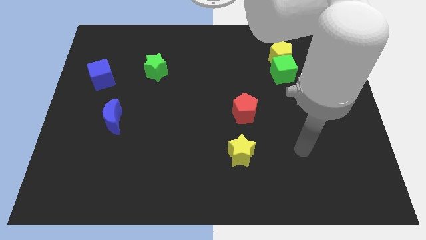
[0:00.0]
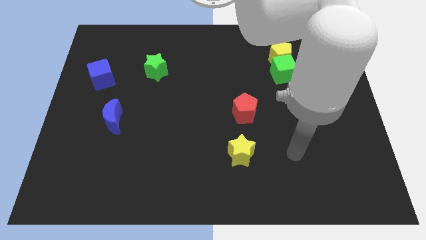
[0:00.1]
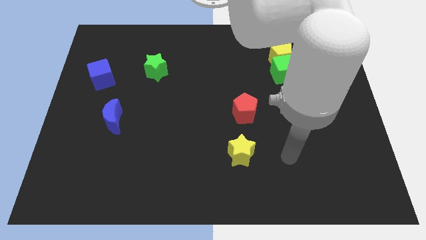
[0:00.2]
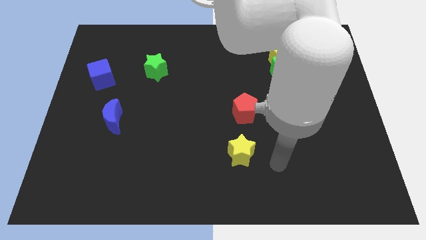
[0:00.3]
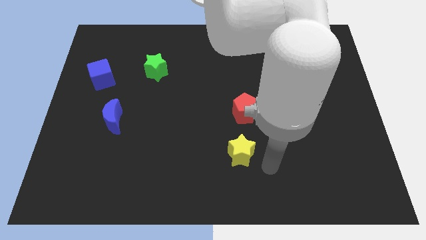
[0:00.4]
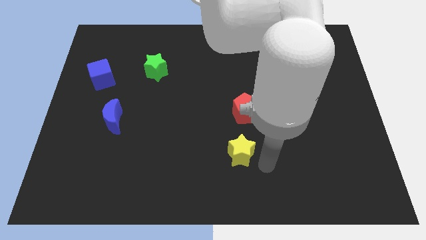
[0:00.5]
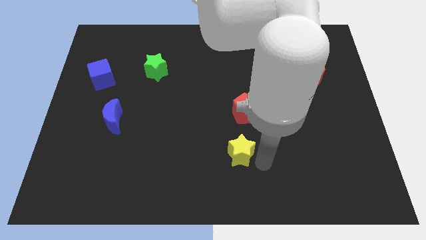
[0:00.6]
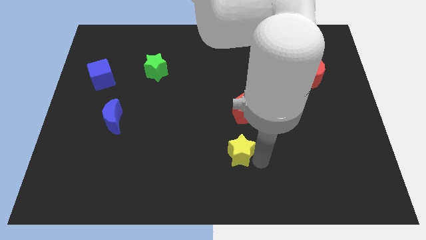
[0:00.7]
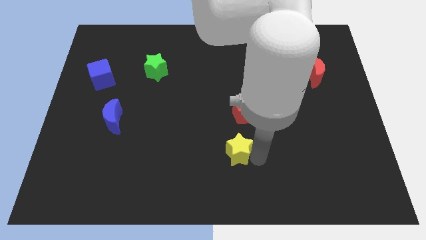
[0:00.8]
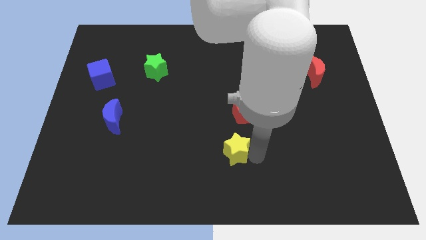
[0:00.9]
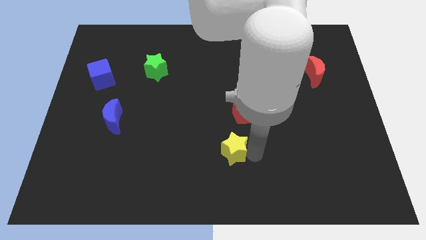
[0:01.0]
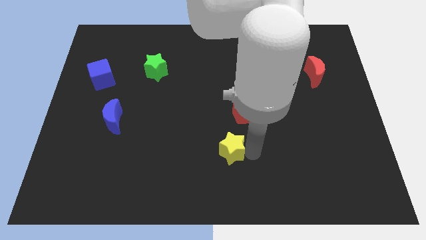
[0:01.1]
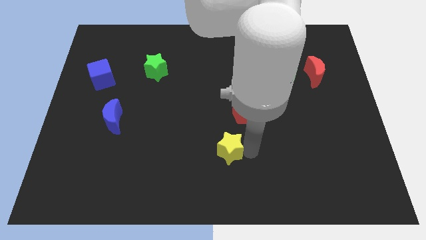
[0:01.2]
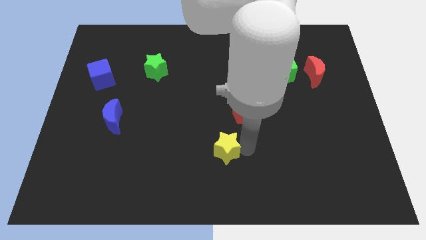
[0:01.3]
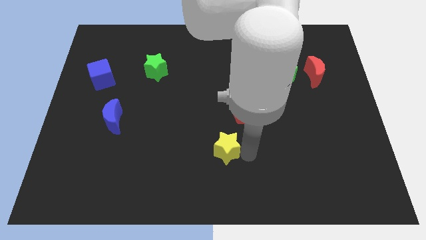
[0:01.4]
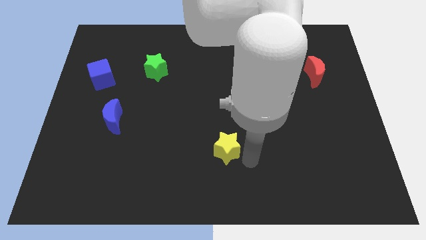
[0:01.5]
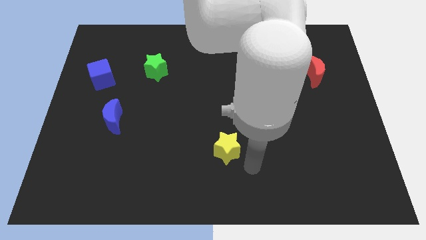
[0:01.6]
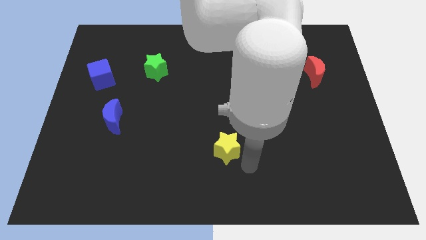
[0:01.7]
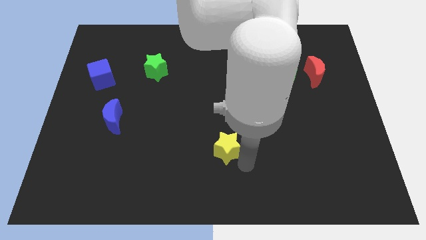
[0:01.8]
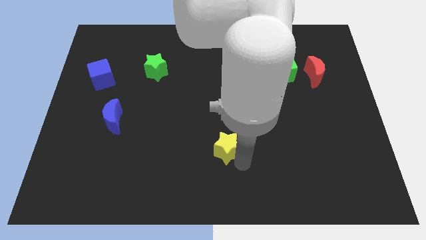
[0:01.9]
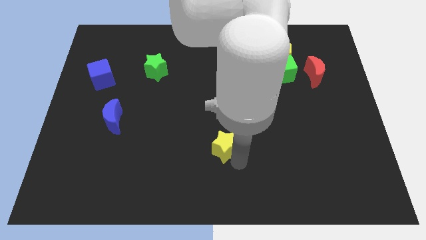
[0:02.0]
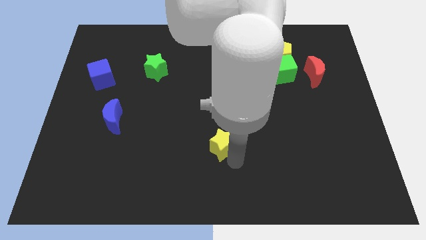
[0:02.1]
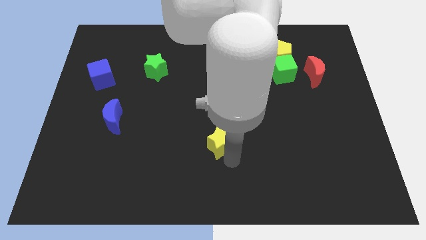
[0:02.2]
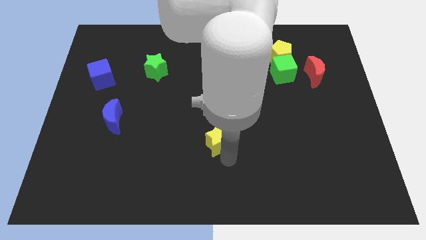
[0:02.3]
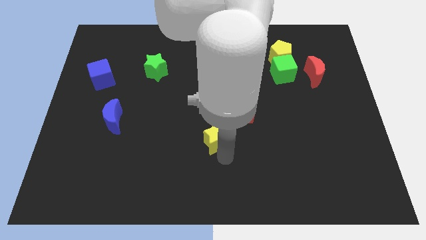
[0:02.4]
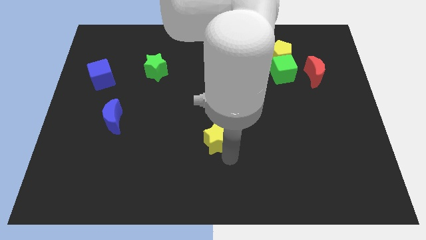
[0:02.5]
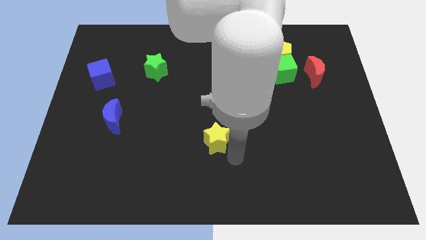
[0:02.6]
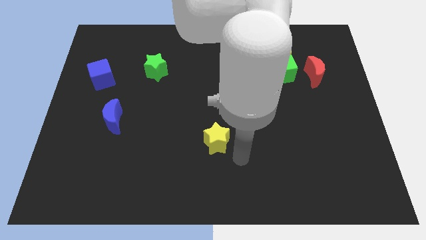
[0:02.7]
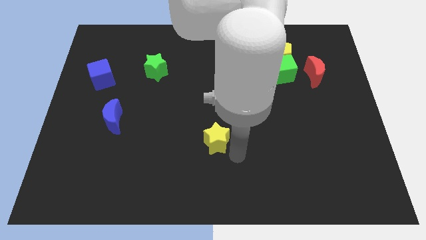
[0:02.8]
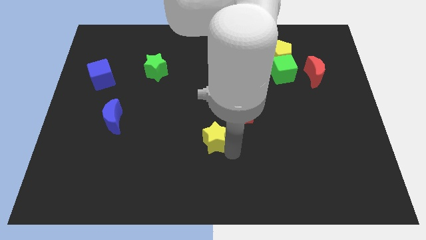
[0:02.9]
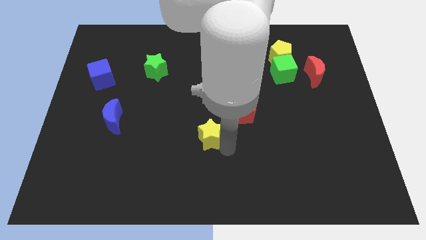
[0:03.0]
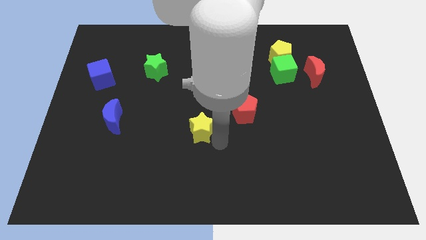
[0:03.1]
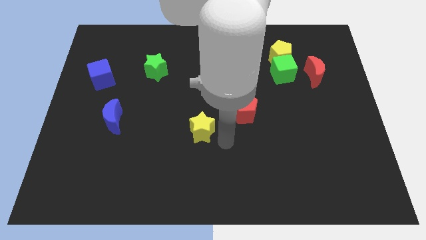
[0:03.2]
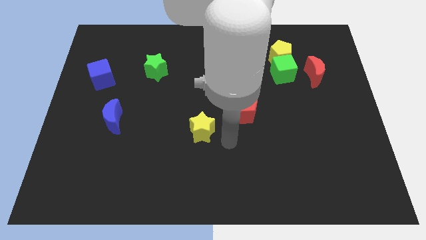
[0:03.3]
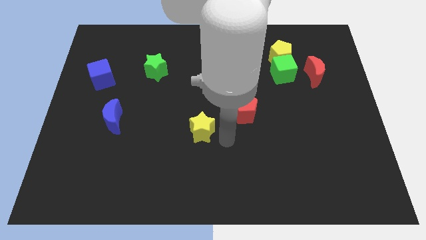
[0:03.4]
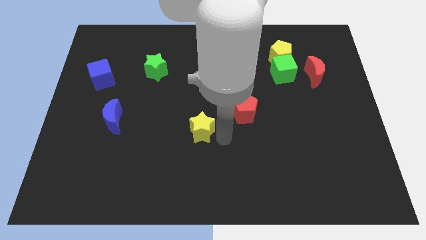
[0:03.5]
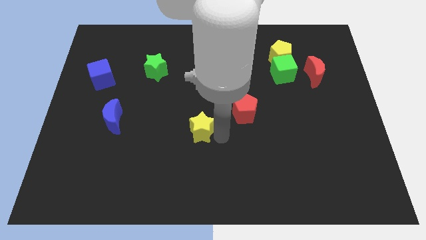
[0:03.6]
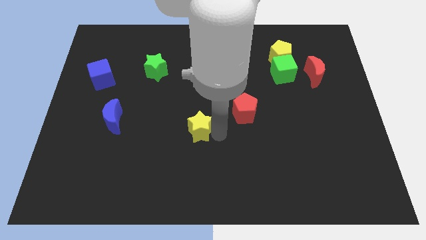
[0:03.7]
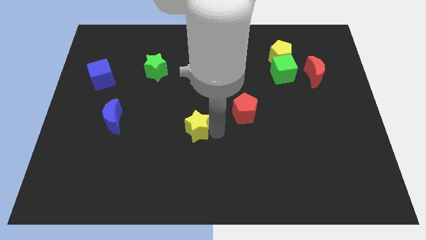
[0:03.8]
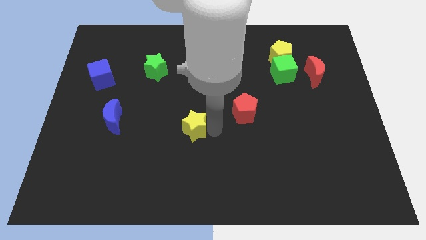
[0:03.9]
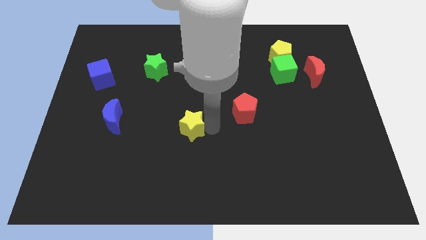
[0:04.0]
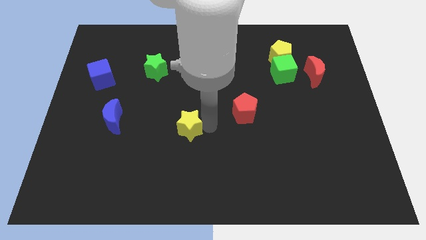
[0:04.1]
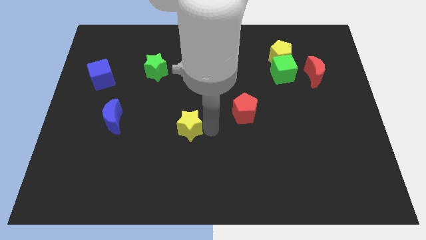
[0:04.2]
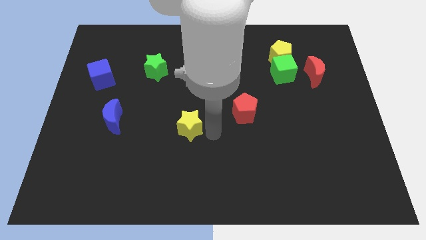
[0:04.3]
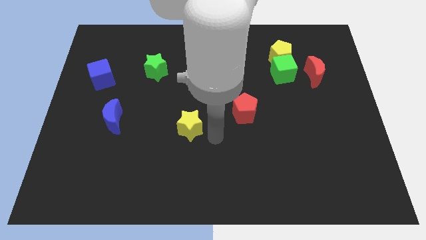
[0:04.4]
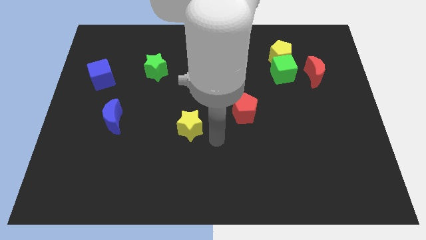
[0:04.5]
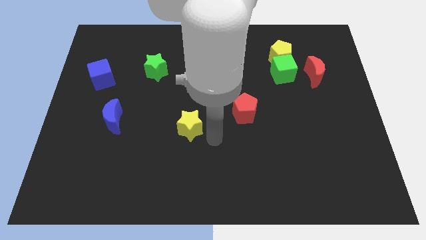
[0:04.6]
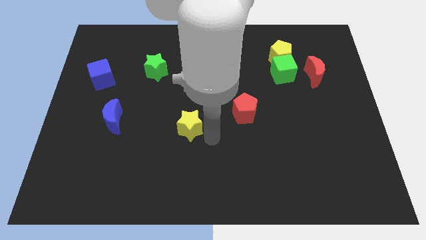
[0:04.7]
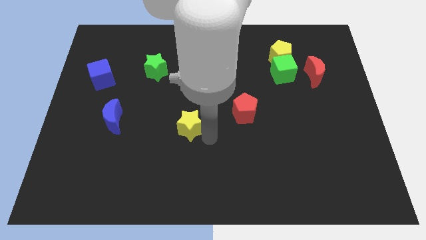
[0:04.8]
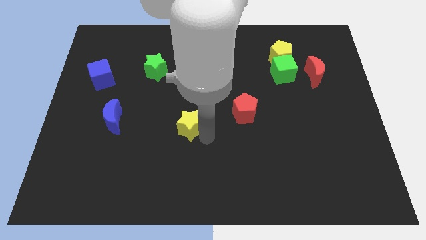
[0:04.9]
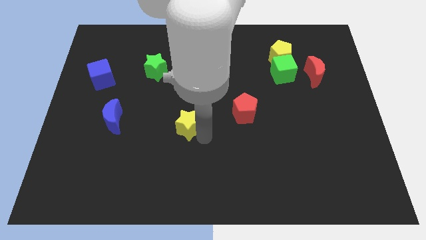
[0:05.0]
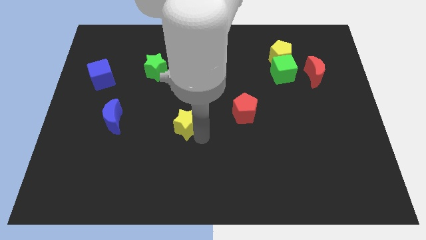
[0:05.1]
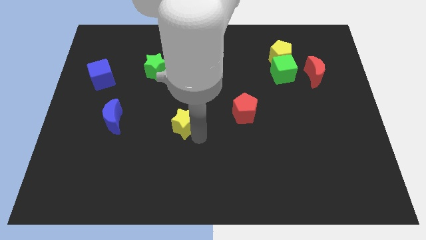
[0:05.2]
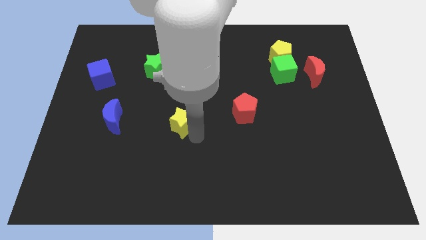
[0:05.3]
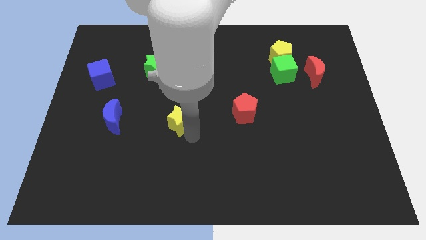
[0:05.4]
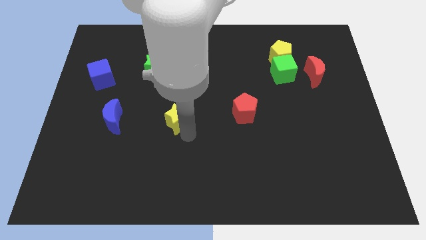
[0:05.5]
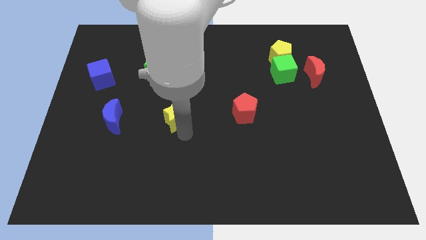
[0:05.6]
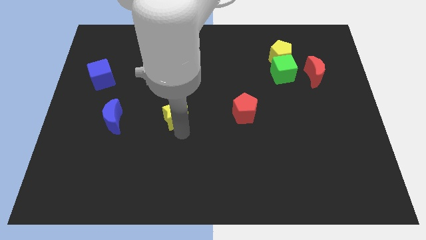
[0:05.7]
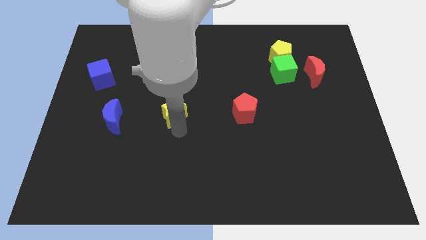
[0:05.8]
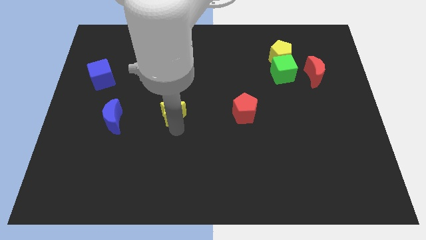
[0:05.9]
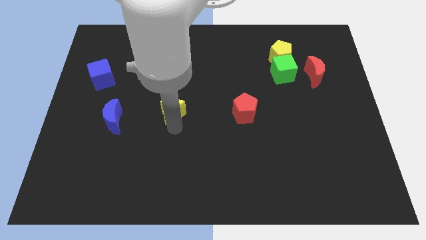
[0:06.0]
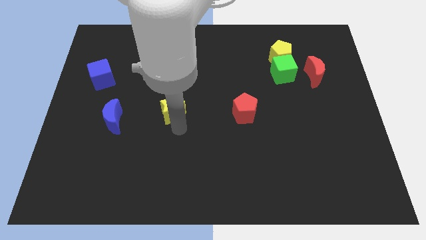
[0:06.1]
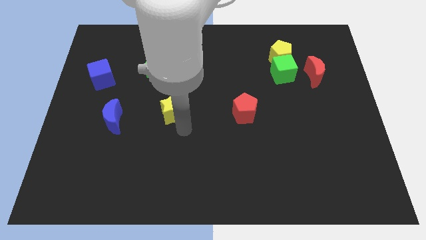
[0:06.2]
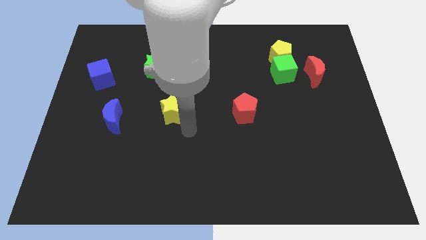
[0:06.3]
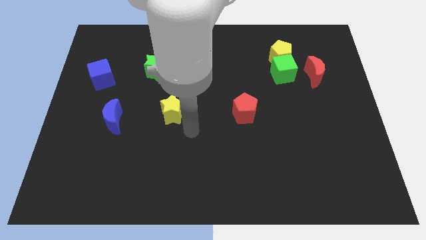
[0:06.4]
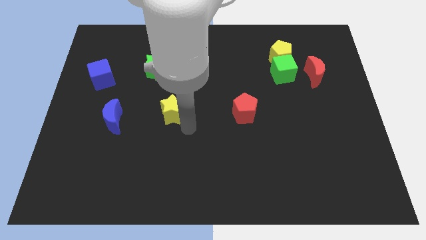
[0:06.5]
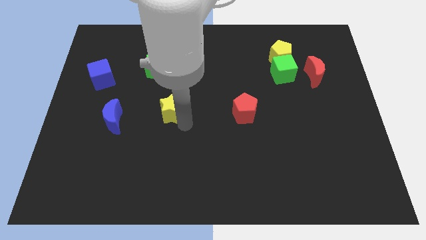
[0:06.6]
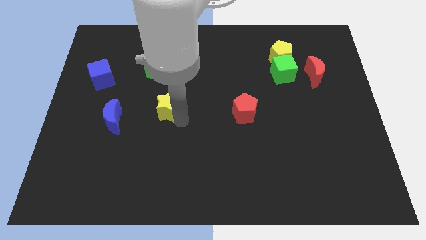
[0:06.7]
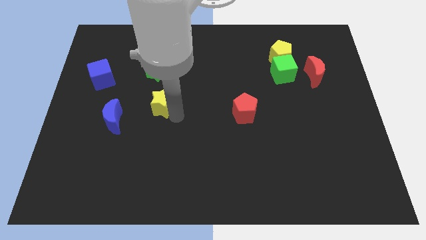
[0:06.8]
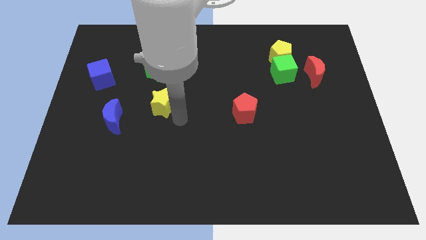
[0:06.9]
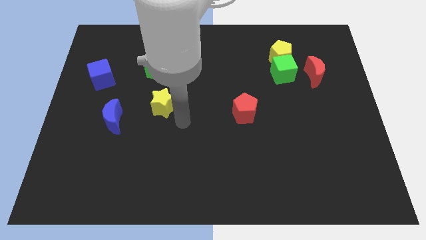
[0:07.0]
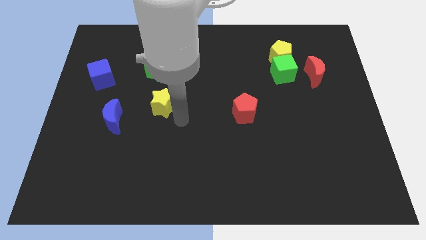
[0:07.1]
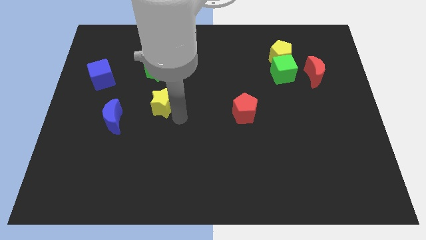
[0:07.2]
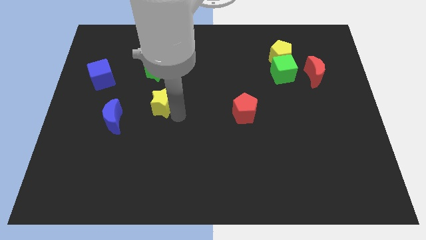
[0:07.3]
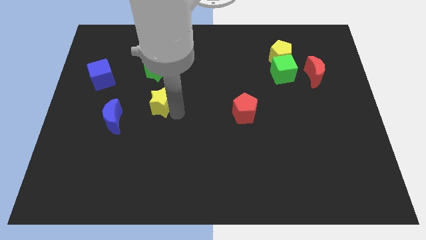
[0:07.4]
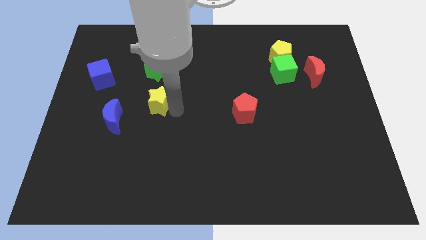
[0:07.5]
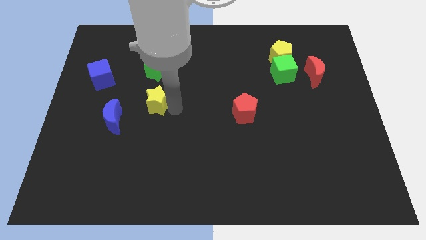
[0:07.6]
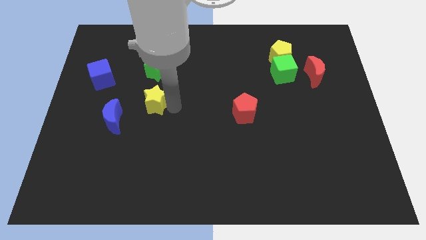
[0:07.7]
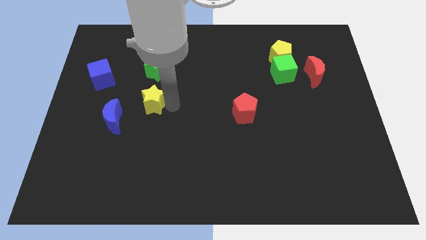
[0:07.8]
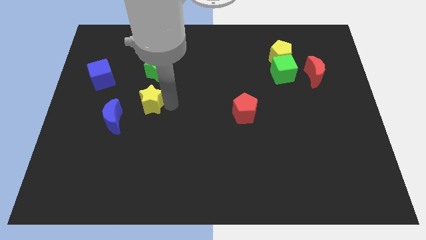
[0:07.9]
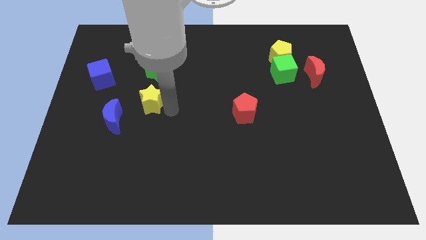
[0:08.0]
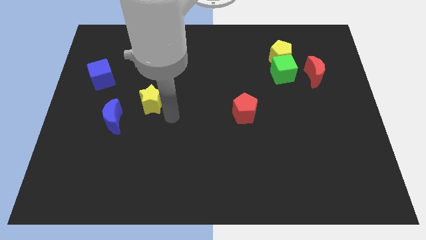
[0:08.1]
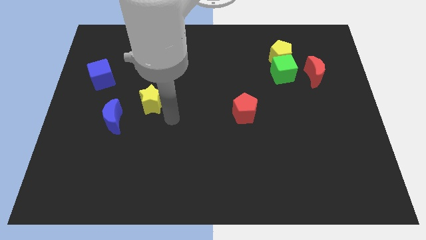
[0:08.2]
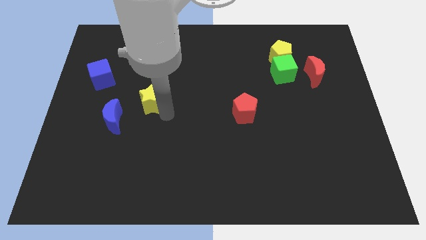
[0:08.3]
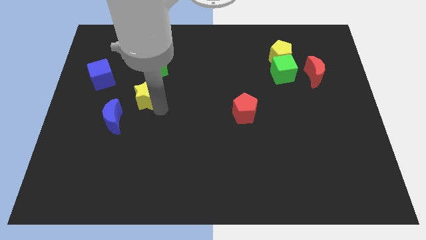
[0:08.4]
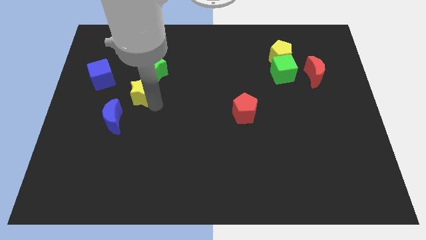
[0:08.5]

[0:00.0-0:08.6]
push the yellow star to the bottom left side of the green star
